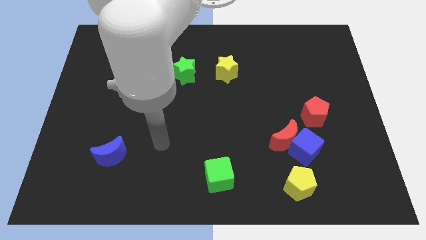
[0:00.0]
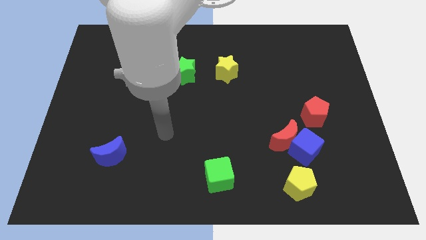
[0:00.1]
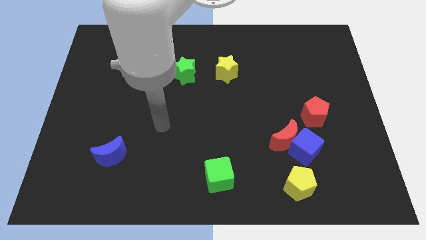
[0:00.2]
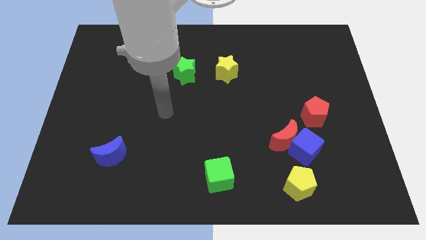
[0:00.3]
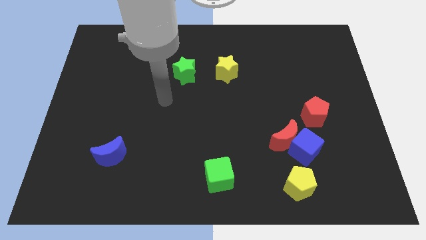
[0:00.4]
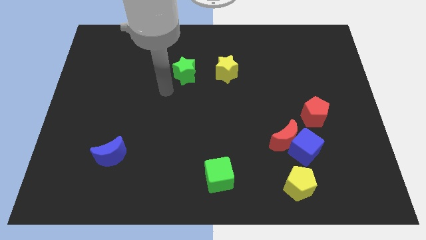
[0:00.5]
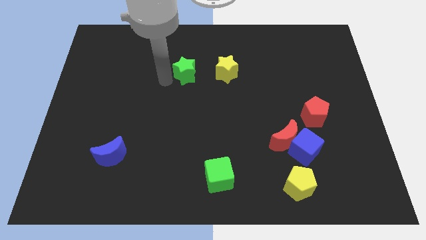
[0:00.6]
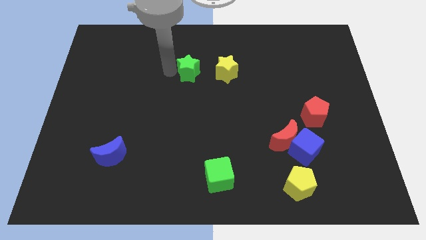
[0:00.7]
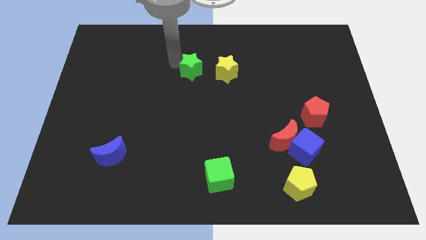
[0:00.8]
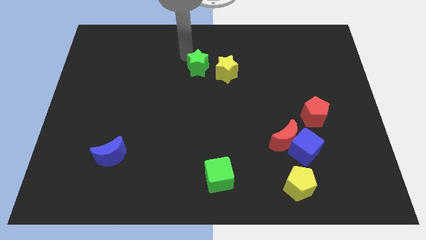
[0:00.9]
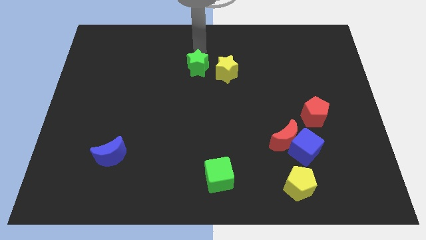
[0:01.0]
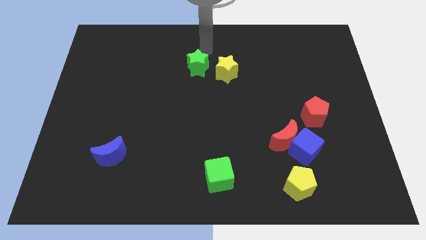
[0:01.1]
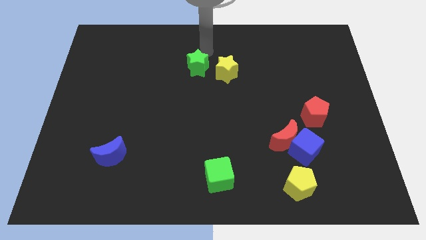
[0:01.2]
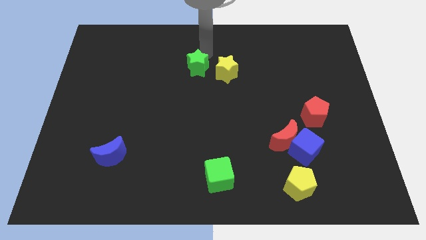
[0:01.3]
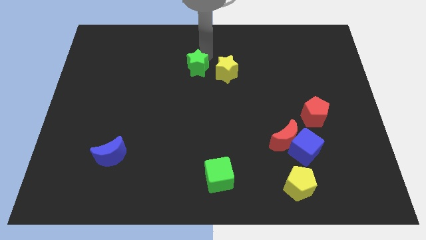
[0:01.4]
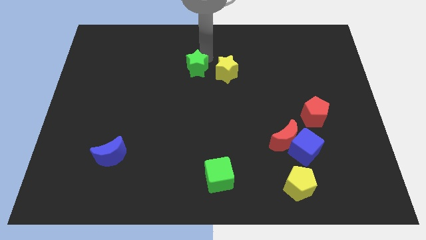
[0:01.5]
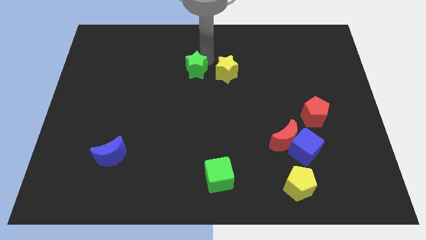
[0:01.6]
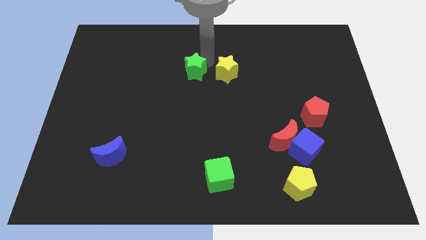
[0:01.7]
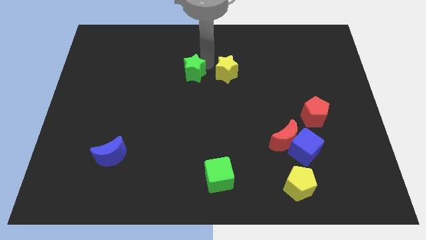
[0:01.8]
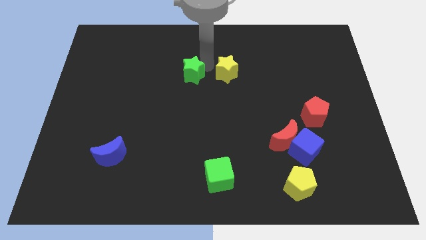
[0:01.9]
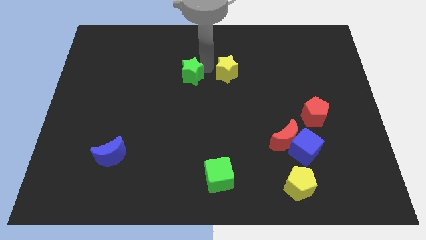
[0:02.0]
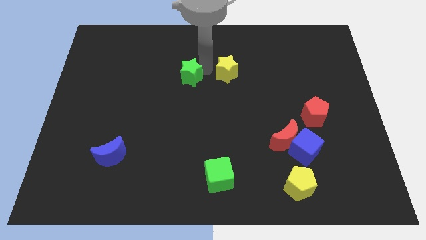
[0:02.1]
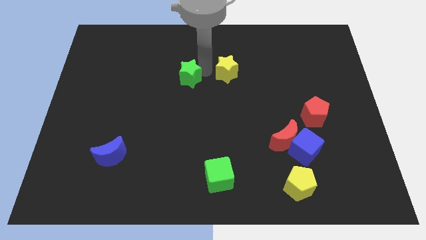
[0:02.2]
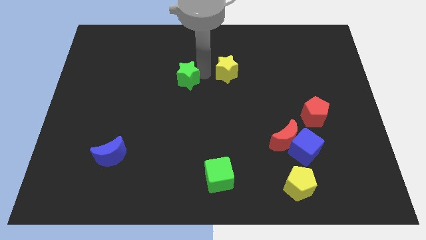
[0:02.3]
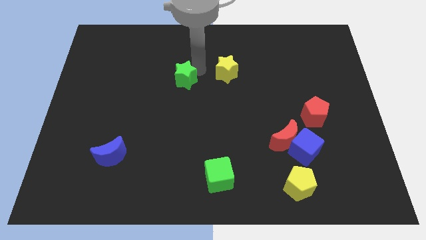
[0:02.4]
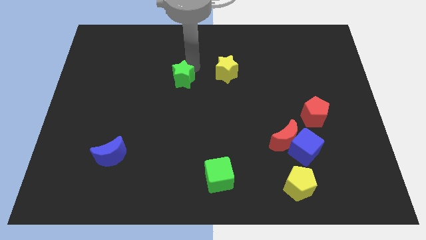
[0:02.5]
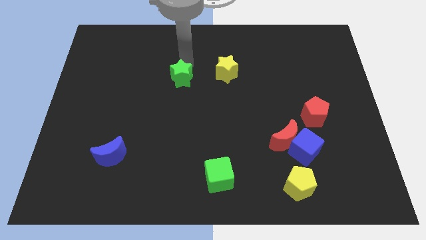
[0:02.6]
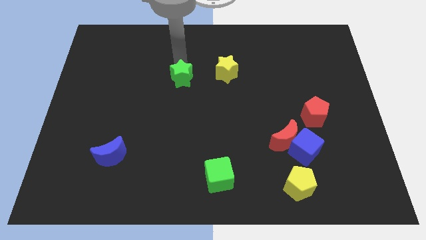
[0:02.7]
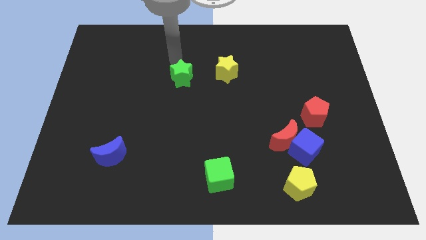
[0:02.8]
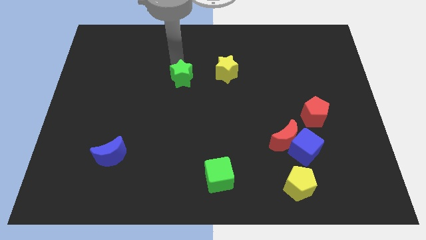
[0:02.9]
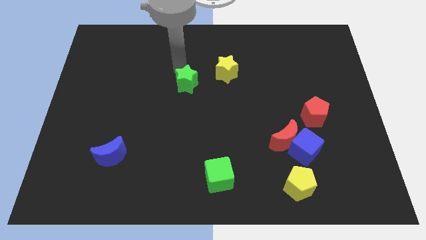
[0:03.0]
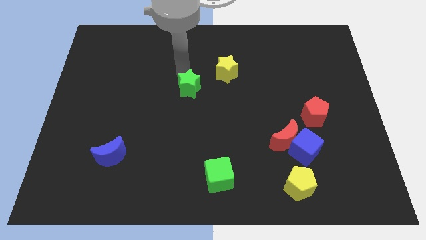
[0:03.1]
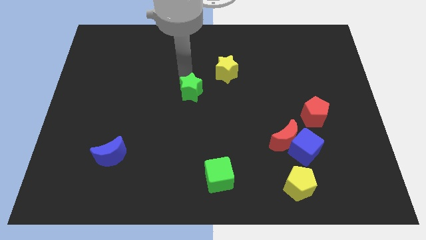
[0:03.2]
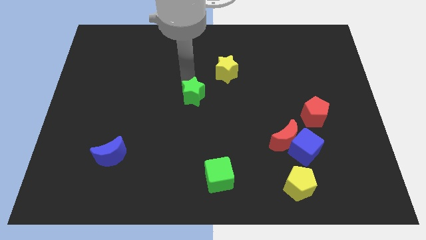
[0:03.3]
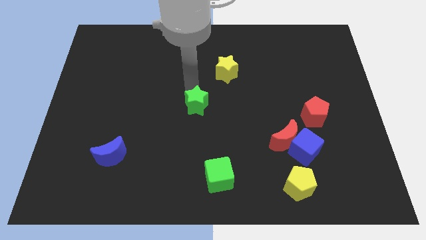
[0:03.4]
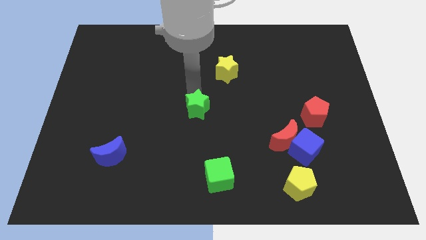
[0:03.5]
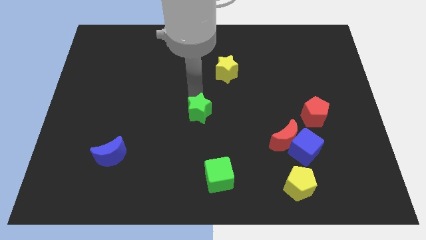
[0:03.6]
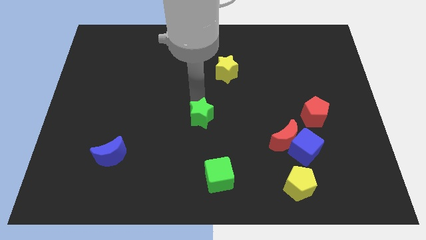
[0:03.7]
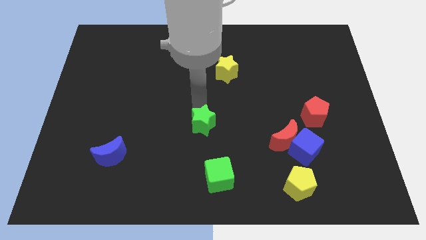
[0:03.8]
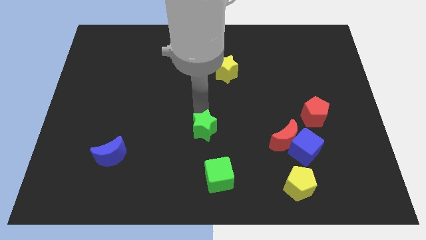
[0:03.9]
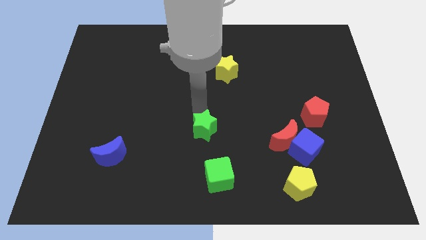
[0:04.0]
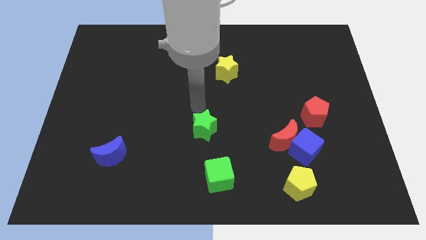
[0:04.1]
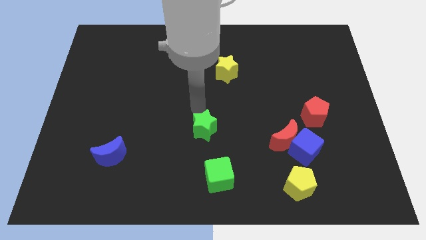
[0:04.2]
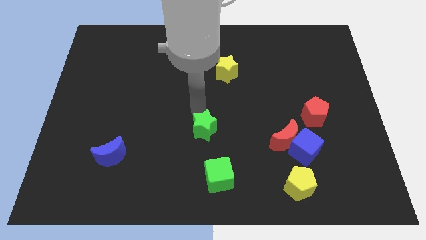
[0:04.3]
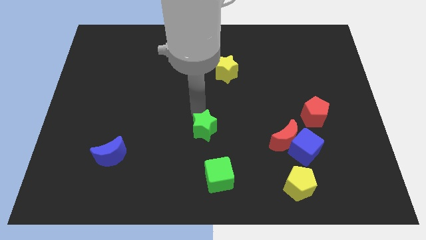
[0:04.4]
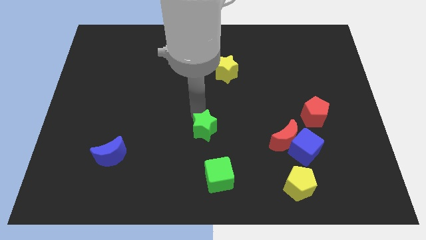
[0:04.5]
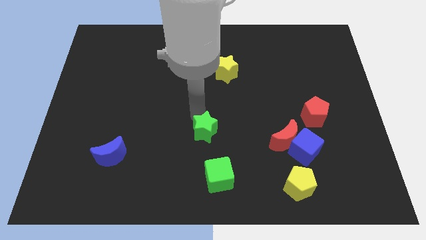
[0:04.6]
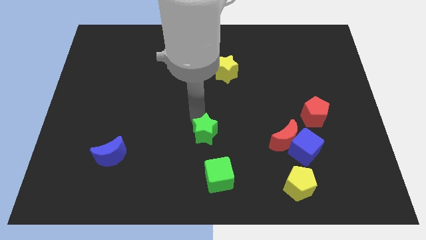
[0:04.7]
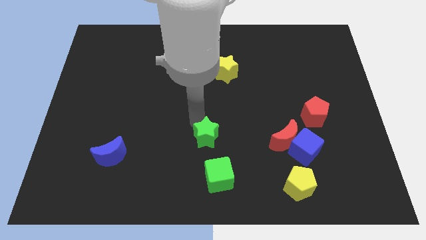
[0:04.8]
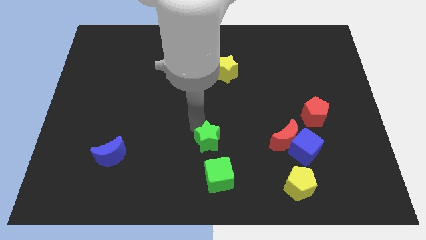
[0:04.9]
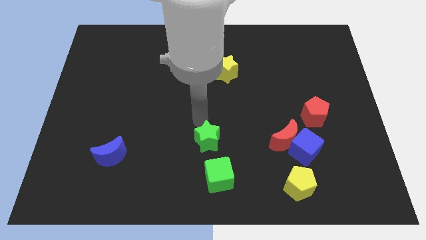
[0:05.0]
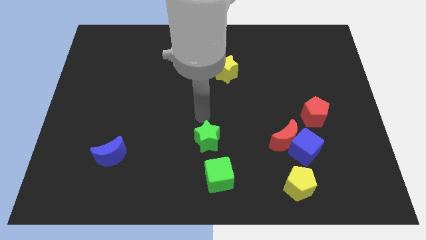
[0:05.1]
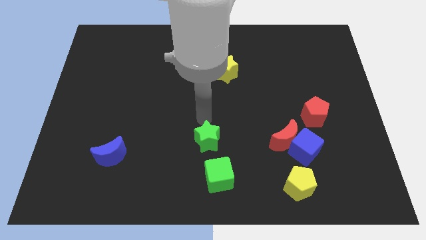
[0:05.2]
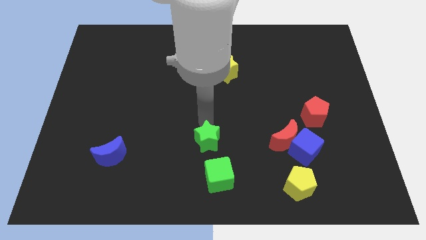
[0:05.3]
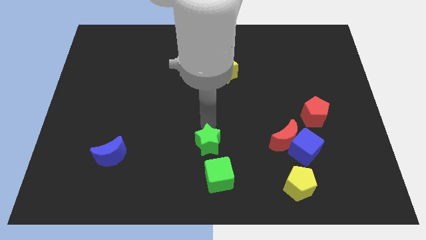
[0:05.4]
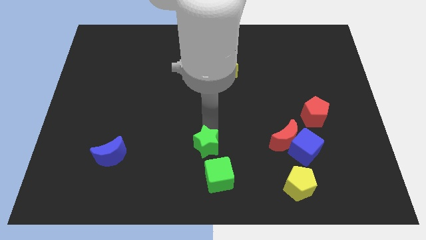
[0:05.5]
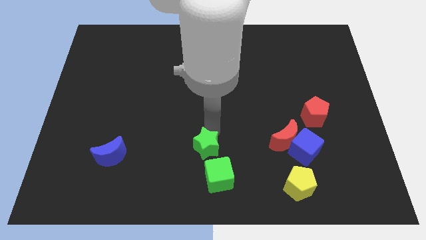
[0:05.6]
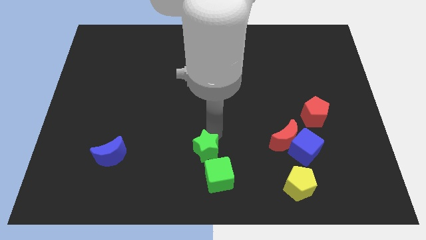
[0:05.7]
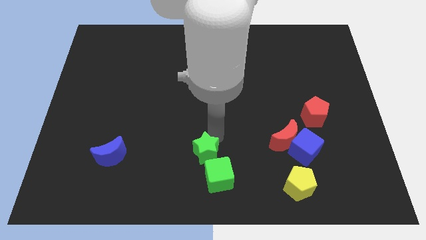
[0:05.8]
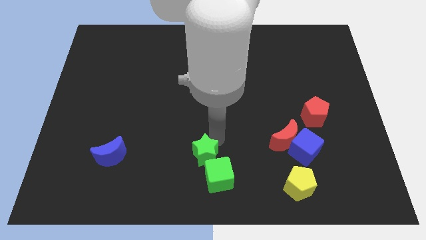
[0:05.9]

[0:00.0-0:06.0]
push the green star towards the green cube

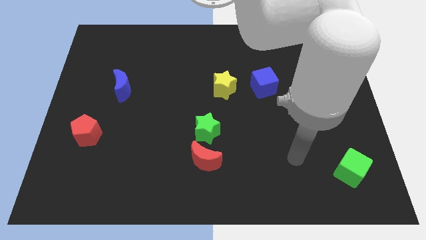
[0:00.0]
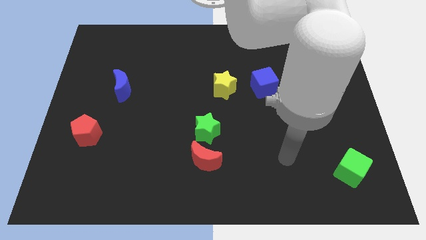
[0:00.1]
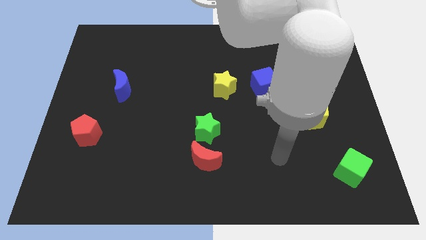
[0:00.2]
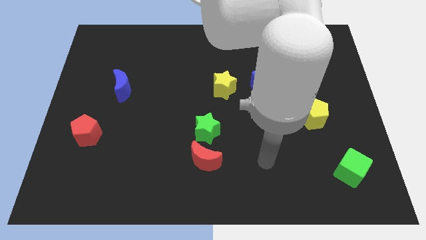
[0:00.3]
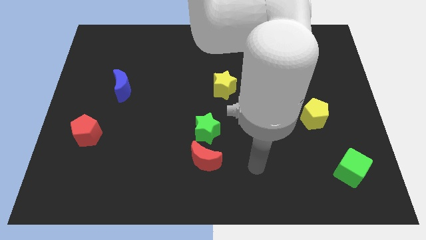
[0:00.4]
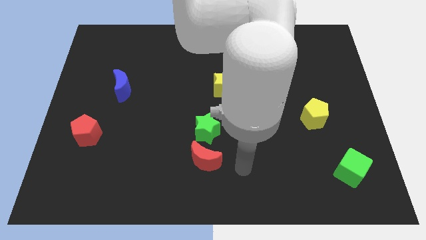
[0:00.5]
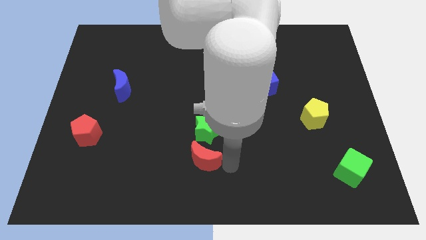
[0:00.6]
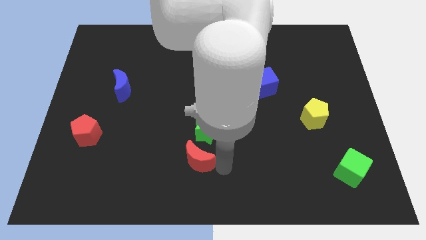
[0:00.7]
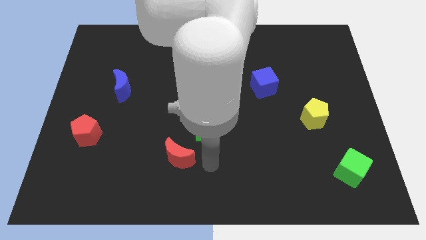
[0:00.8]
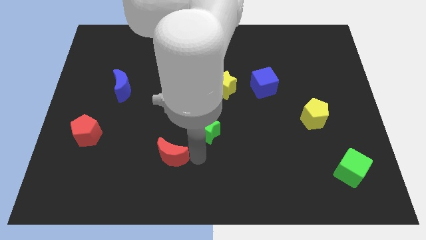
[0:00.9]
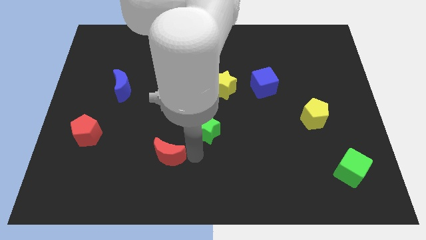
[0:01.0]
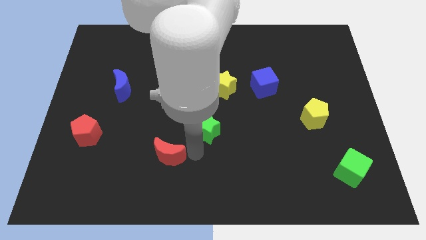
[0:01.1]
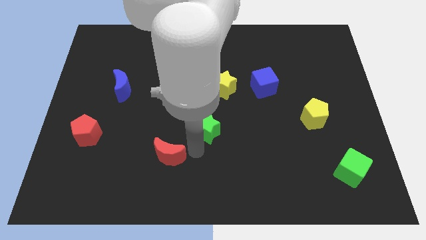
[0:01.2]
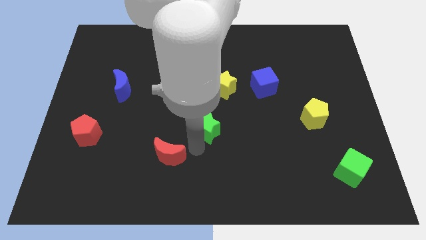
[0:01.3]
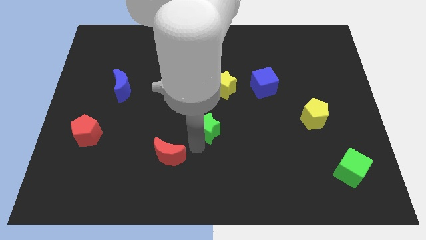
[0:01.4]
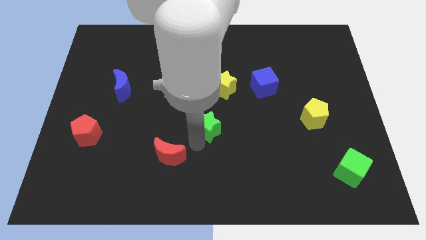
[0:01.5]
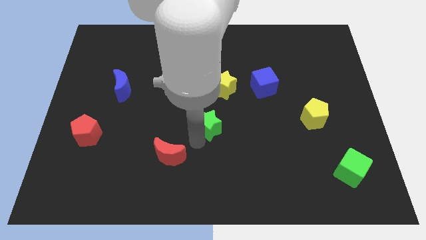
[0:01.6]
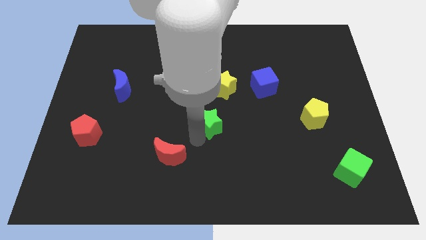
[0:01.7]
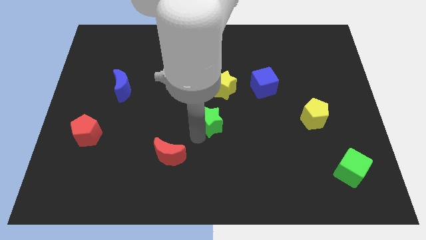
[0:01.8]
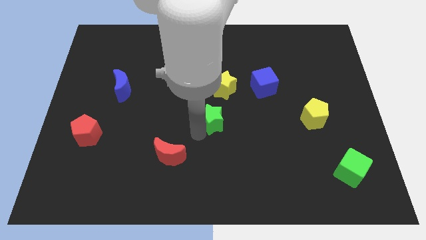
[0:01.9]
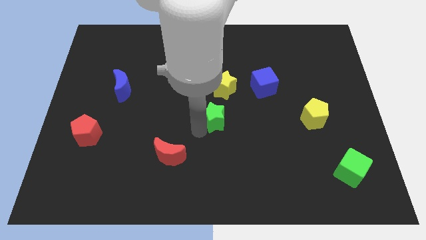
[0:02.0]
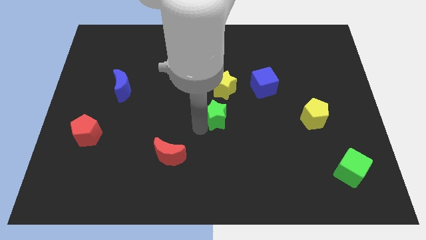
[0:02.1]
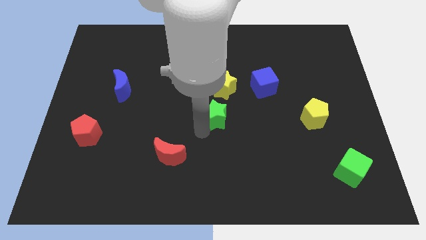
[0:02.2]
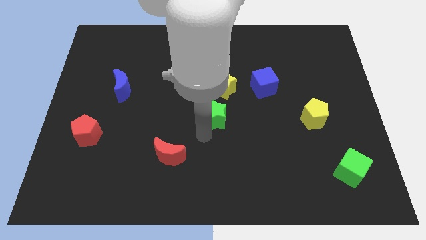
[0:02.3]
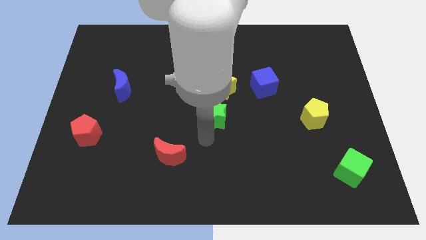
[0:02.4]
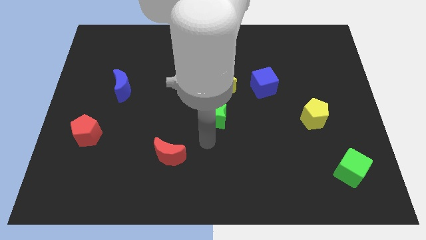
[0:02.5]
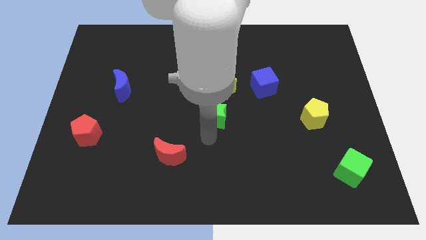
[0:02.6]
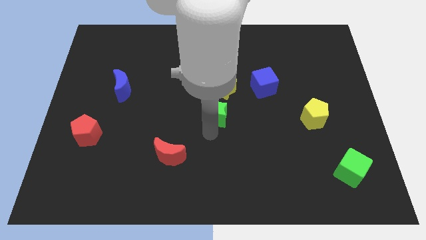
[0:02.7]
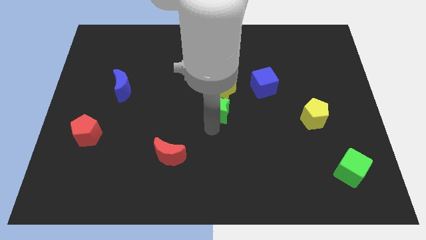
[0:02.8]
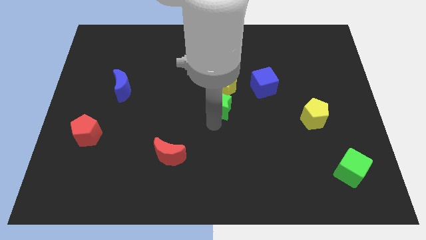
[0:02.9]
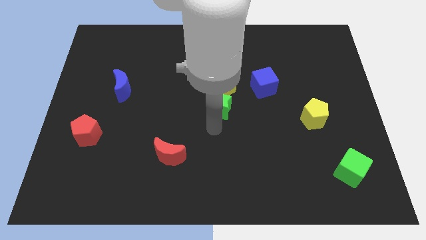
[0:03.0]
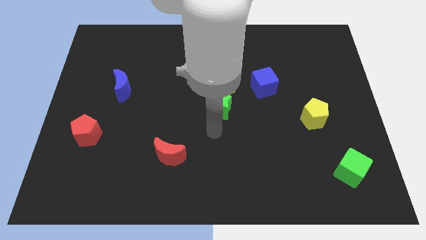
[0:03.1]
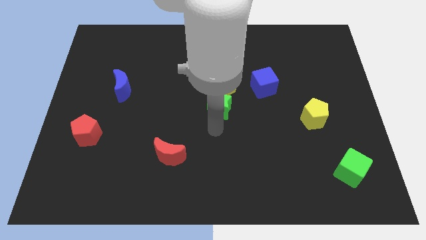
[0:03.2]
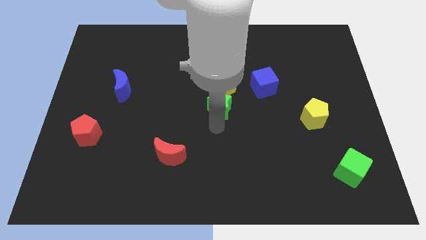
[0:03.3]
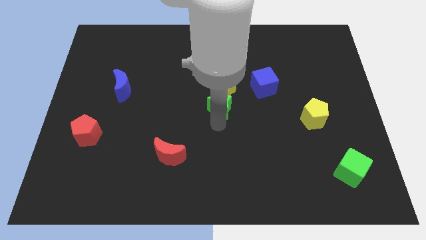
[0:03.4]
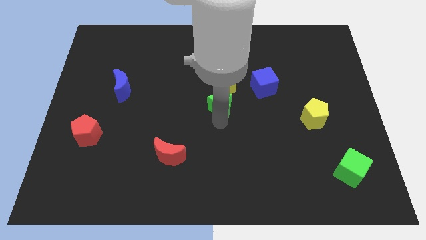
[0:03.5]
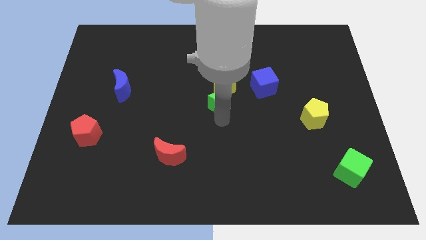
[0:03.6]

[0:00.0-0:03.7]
move the green star close to the yellow star
